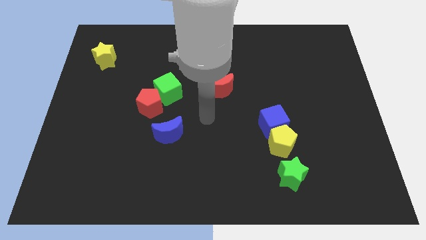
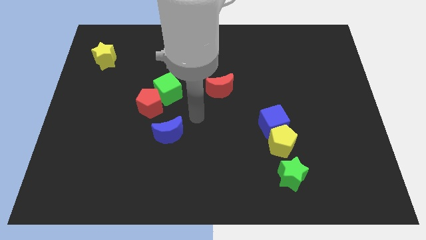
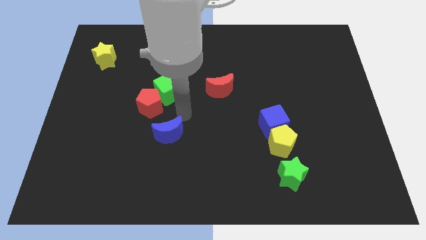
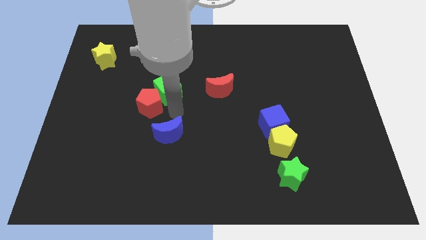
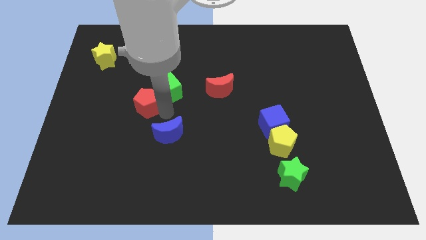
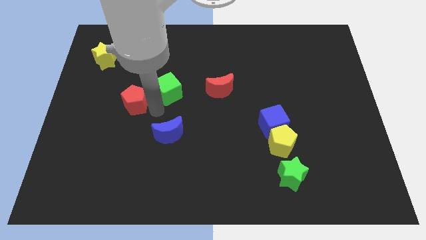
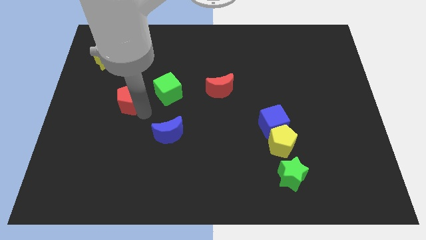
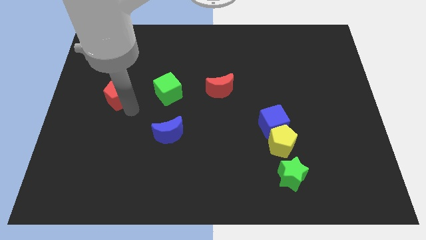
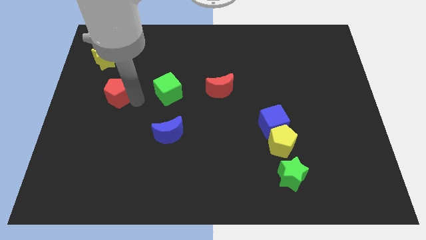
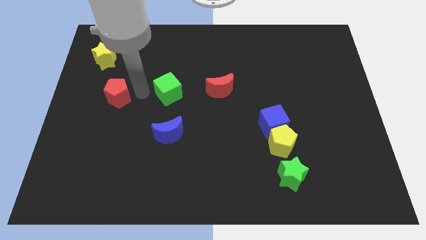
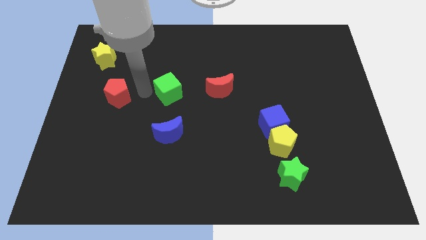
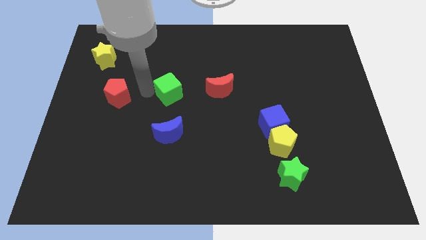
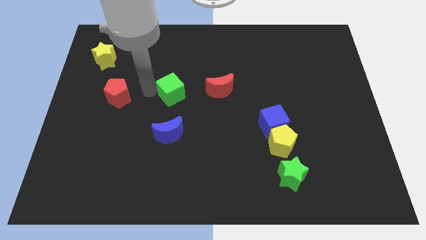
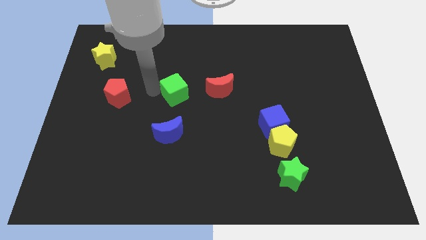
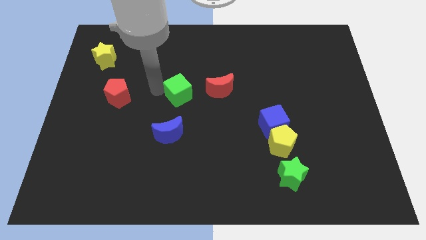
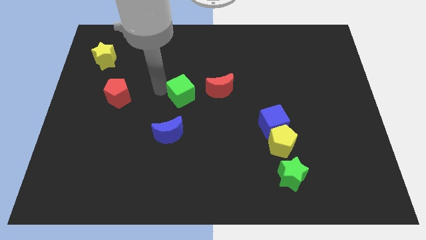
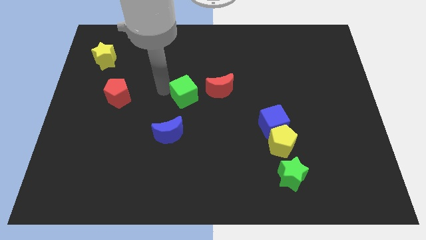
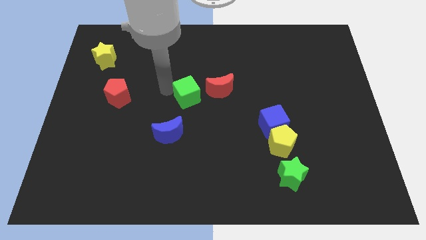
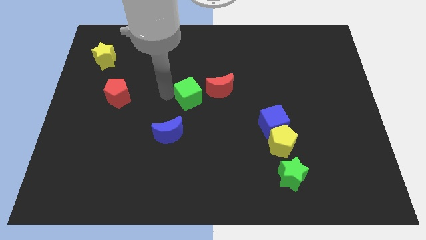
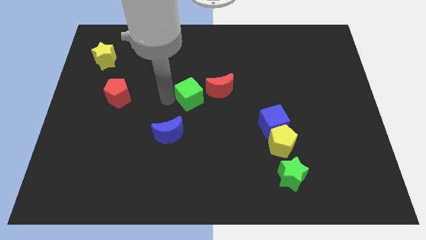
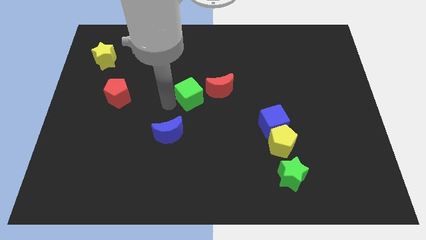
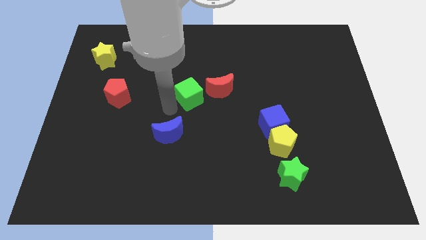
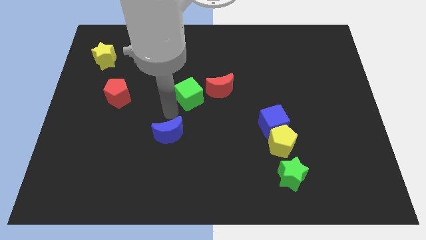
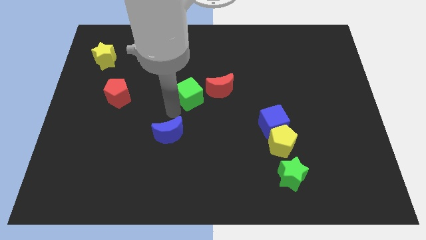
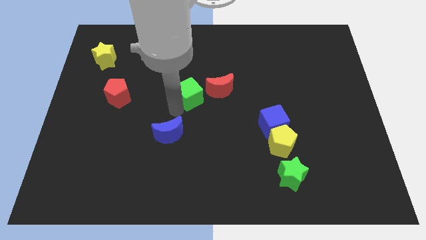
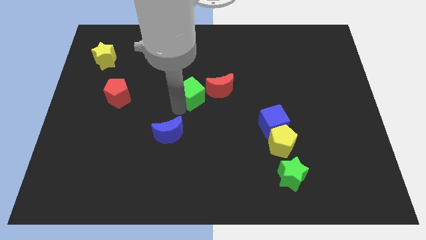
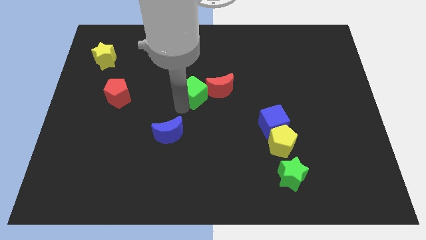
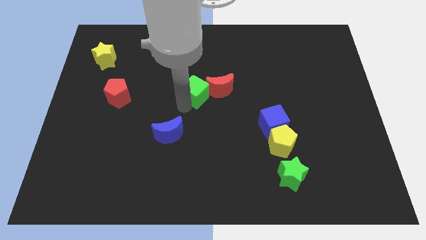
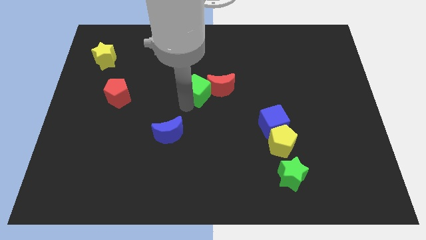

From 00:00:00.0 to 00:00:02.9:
push the green cube right slightly

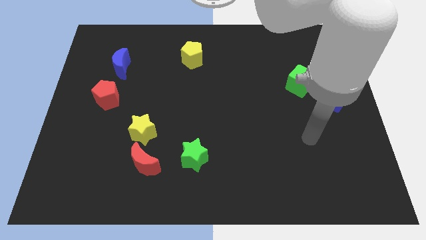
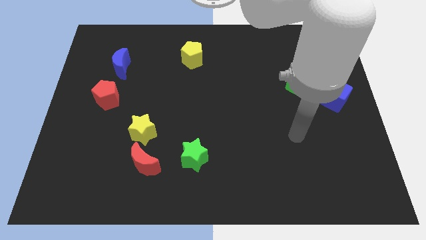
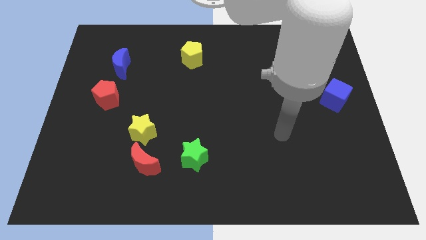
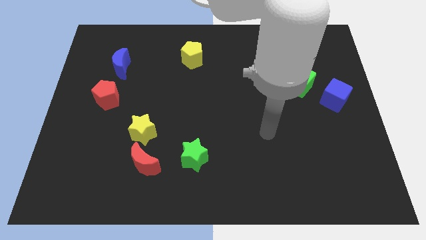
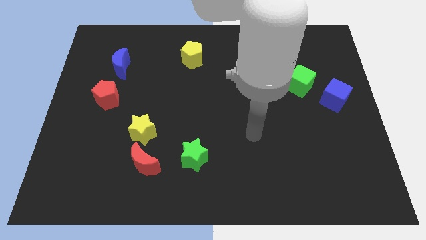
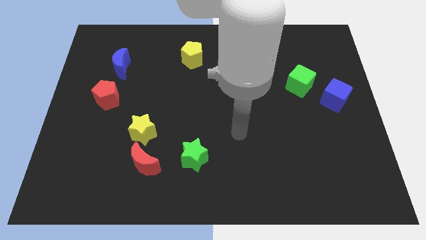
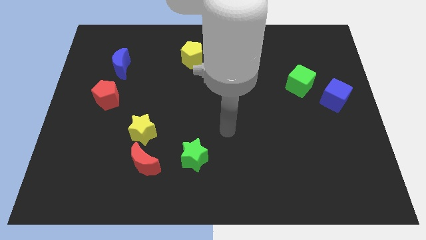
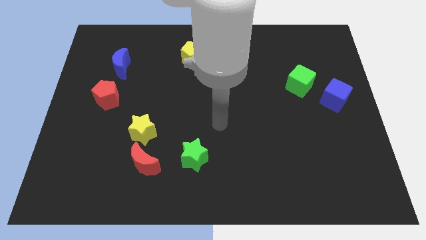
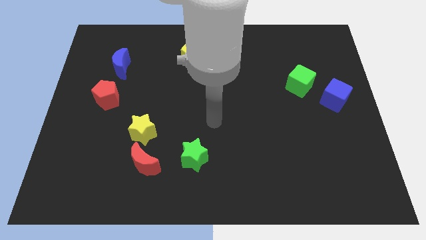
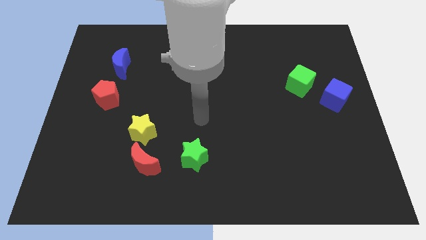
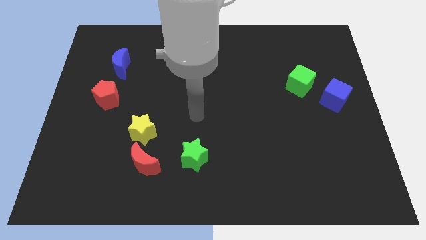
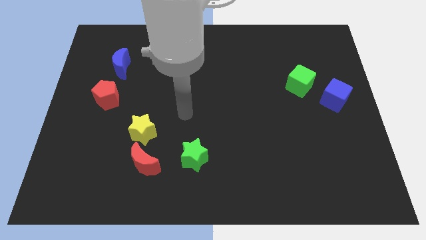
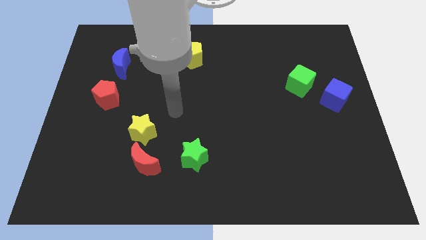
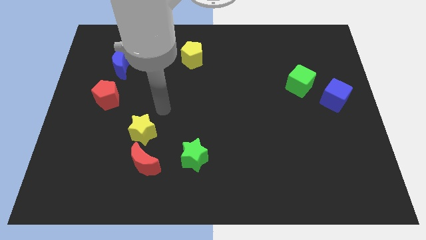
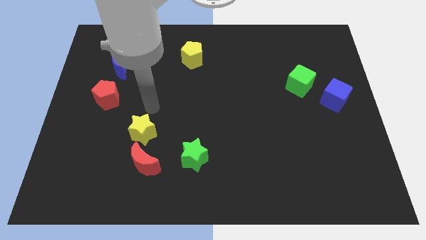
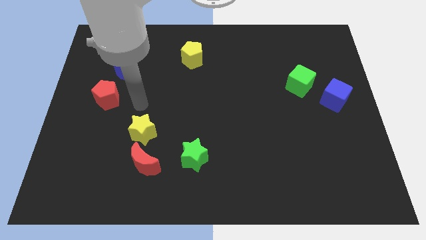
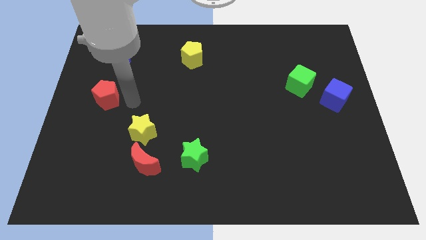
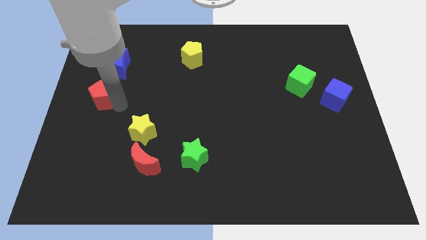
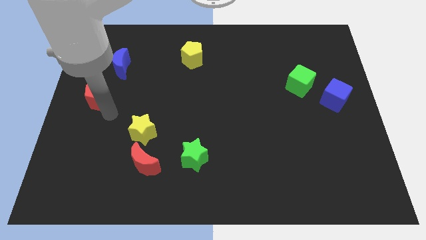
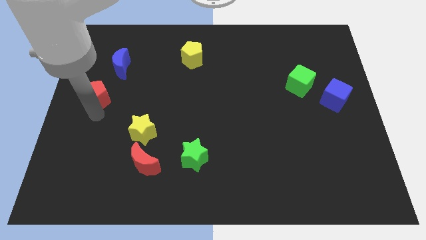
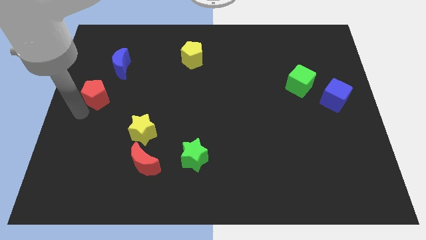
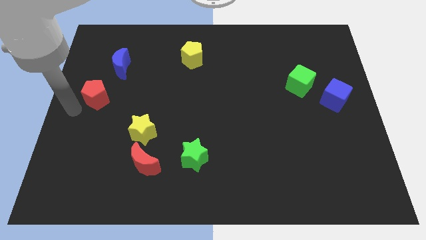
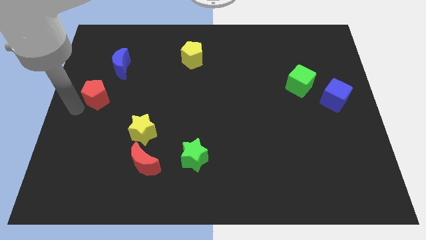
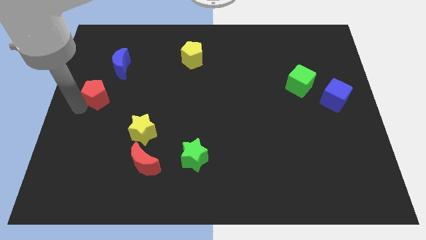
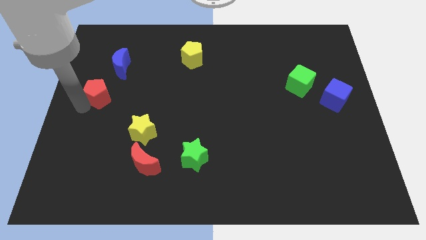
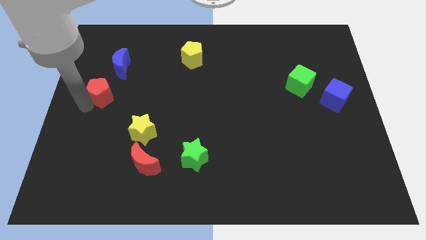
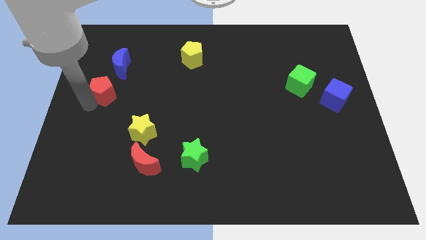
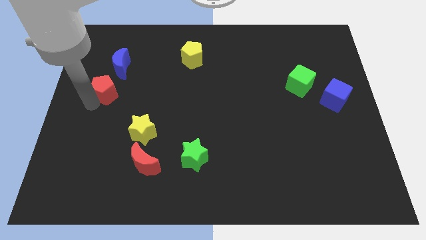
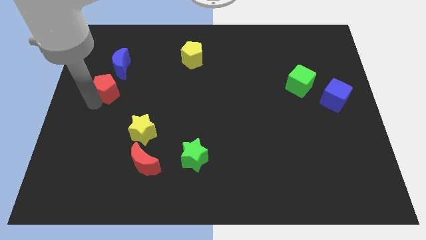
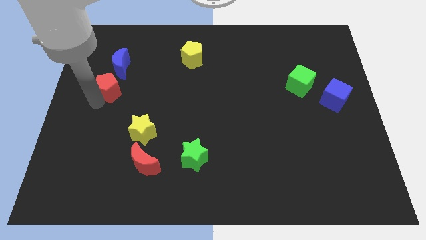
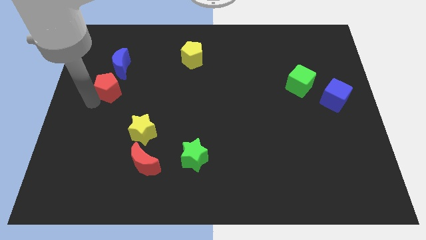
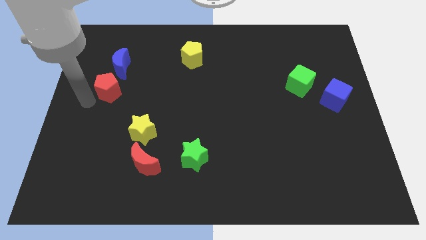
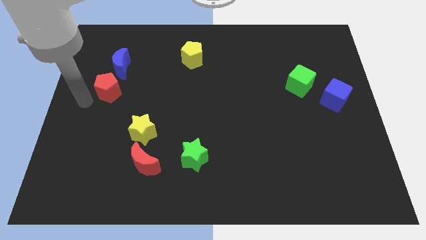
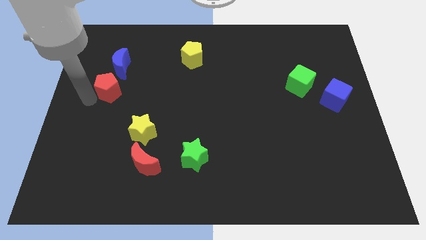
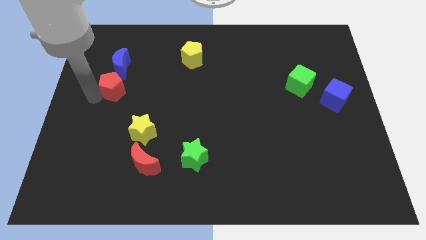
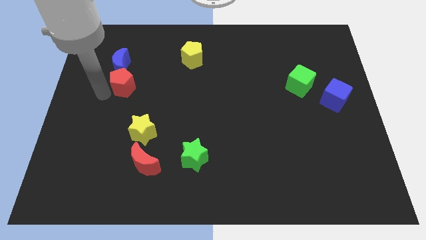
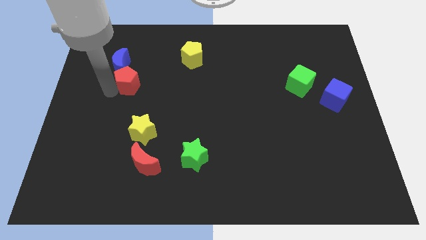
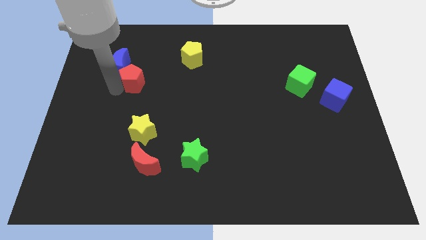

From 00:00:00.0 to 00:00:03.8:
move the red pentagon up and then right a little

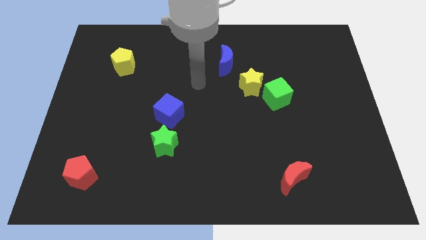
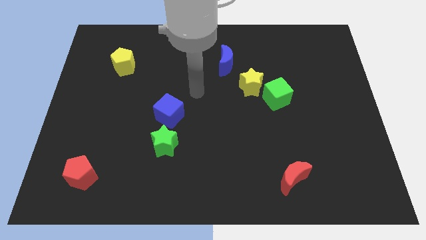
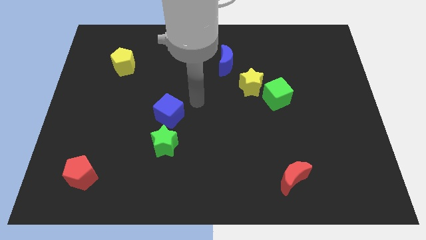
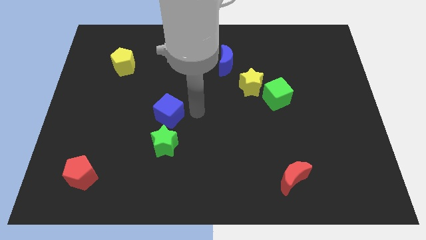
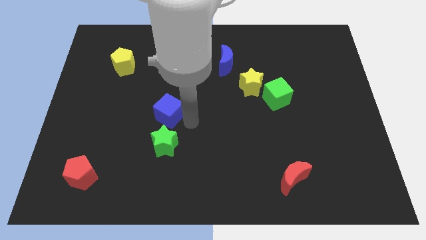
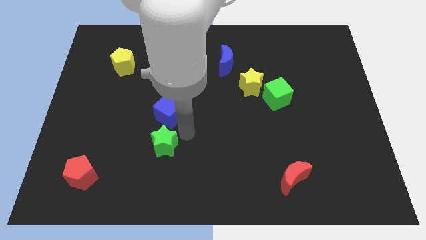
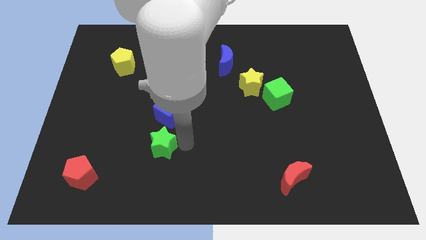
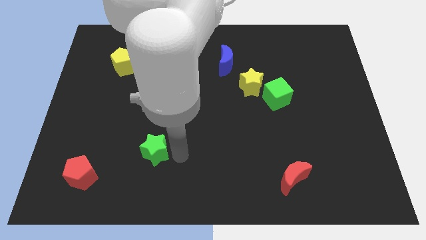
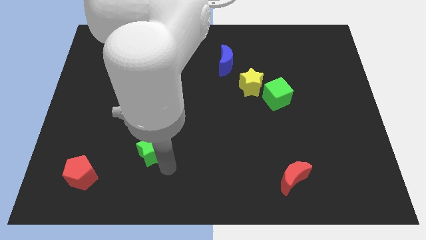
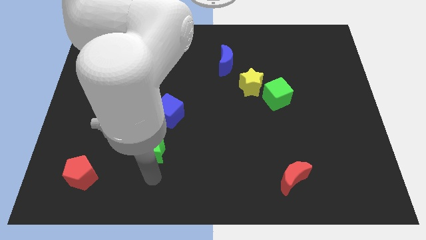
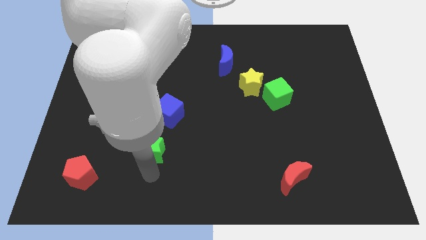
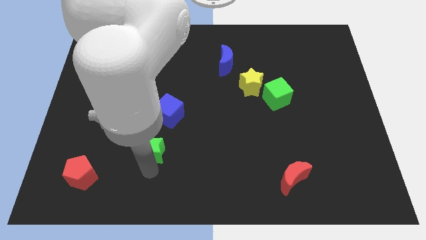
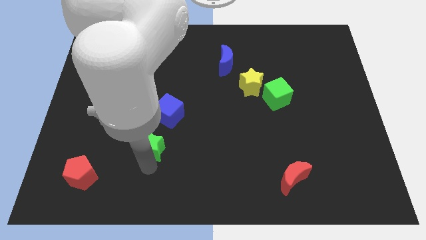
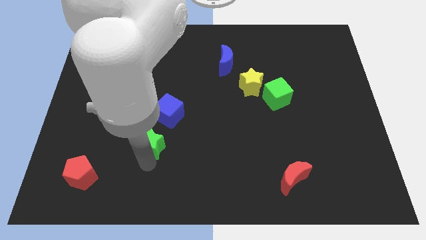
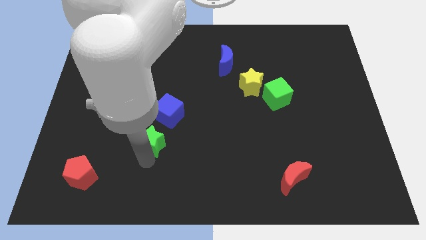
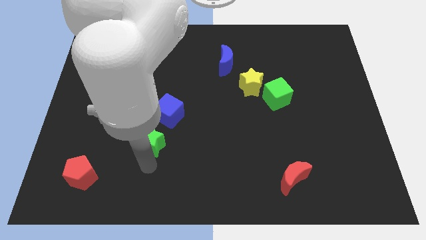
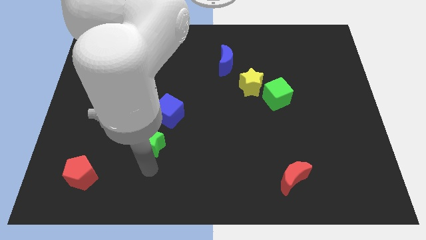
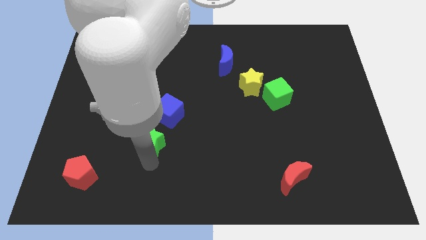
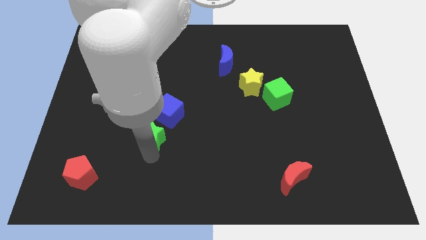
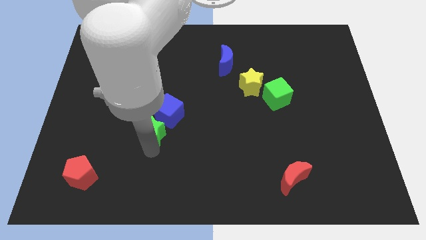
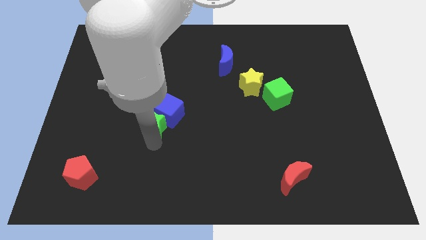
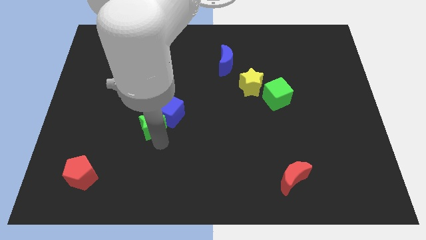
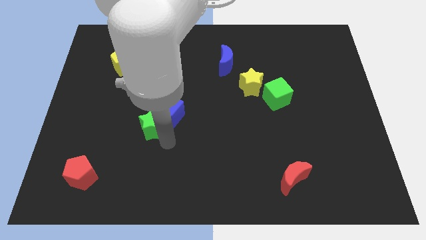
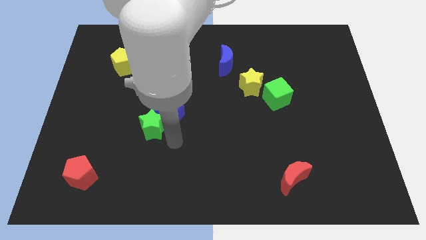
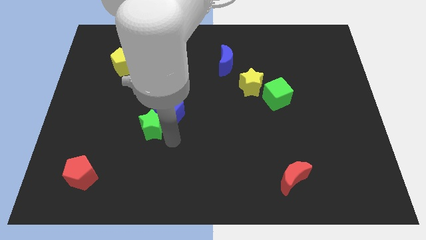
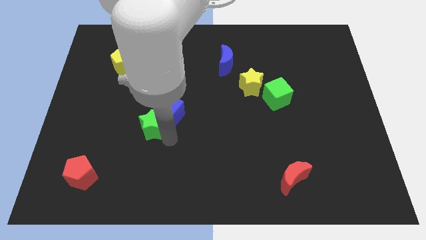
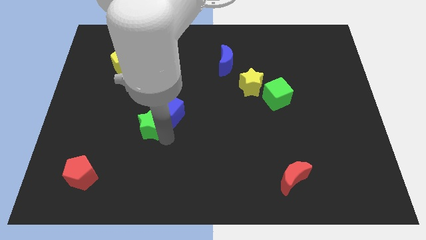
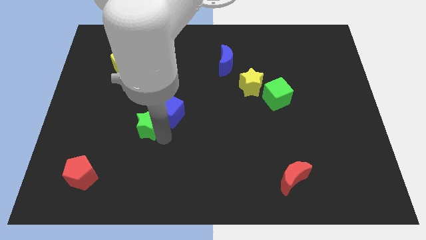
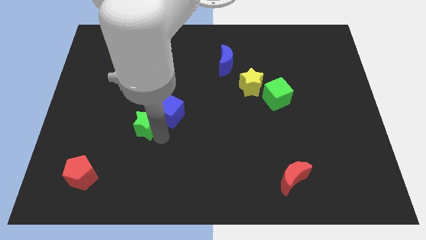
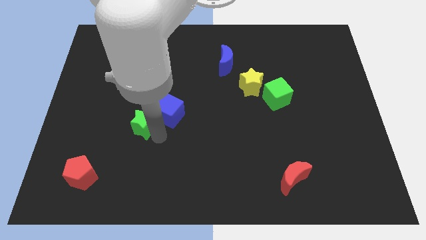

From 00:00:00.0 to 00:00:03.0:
push the green star a bit up and left diagonally
